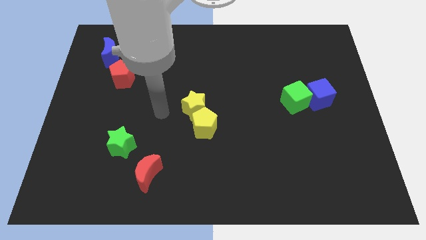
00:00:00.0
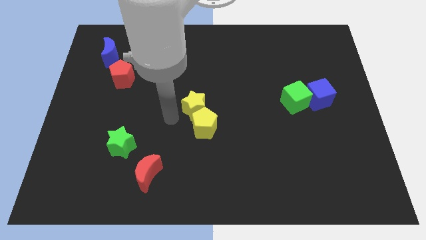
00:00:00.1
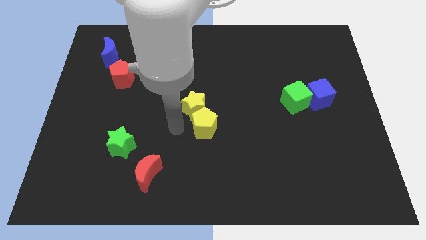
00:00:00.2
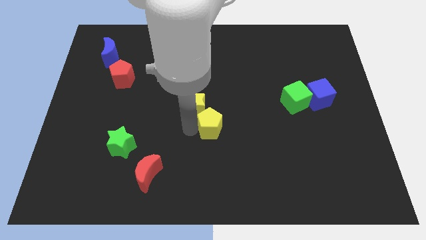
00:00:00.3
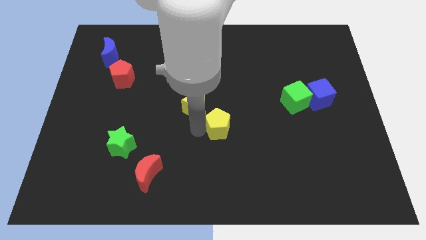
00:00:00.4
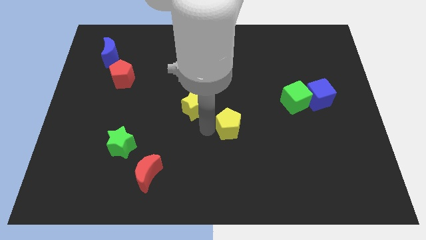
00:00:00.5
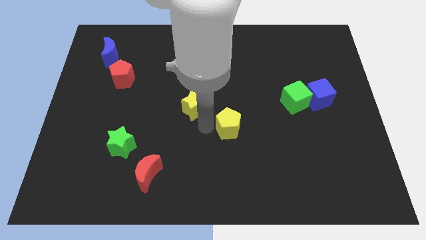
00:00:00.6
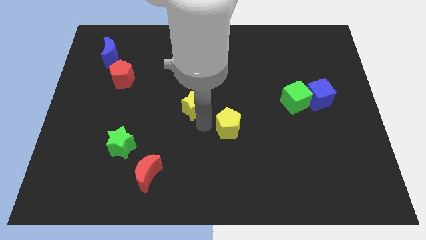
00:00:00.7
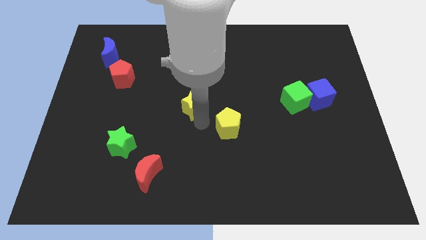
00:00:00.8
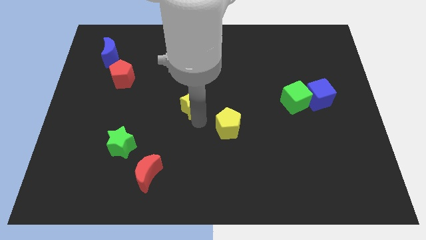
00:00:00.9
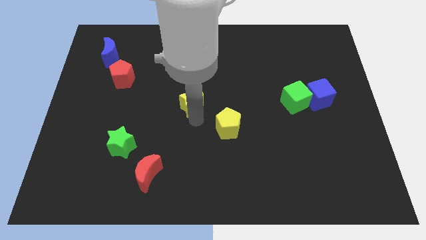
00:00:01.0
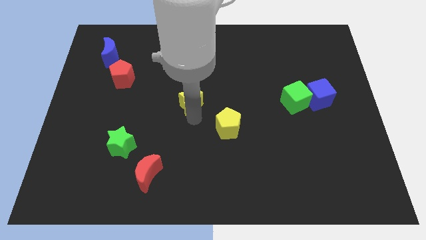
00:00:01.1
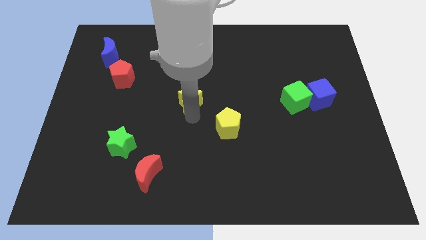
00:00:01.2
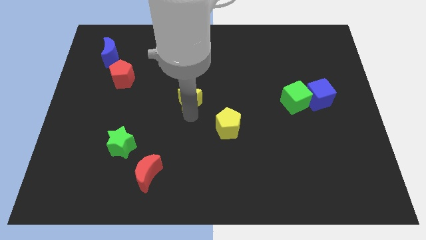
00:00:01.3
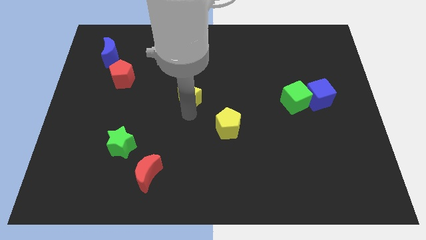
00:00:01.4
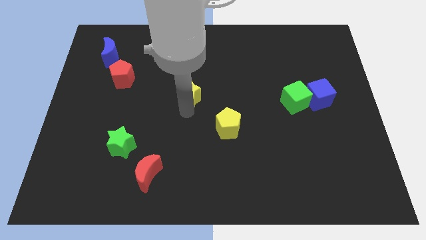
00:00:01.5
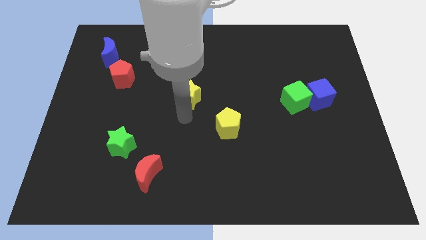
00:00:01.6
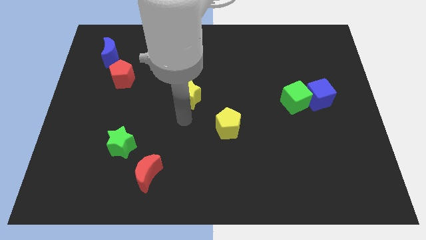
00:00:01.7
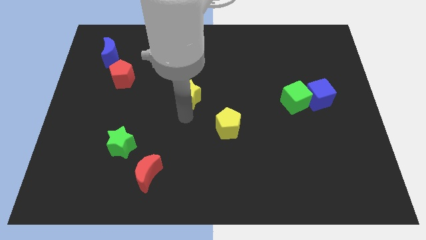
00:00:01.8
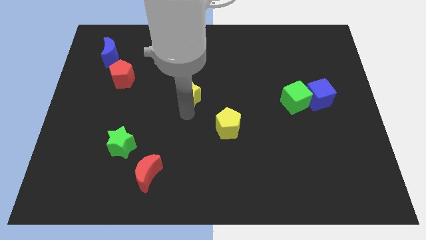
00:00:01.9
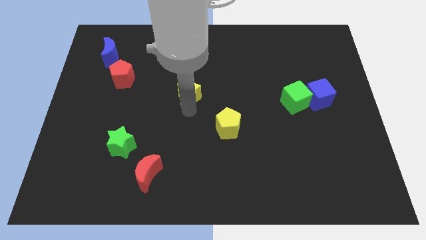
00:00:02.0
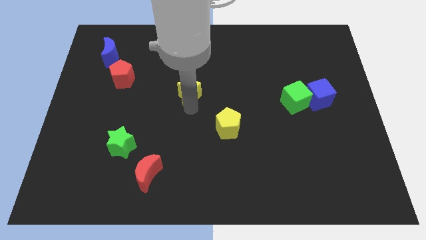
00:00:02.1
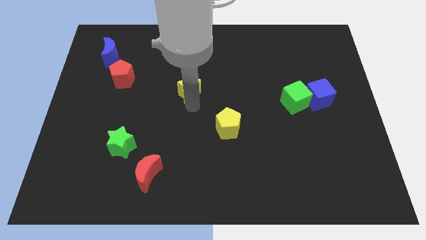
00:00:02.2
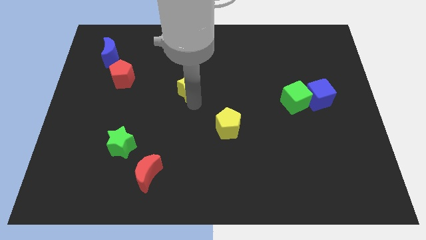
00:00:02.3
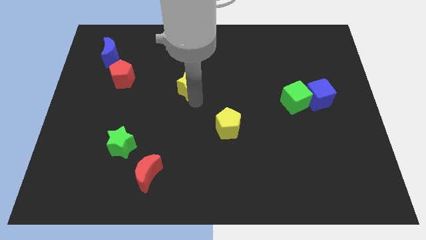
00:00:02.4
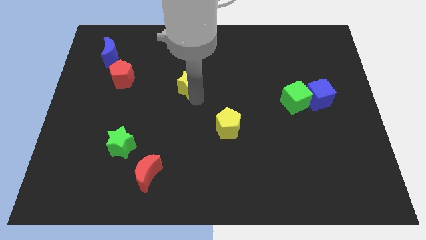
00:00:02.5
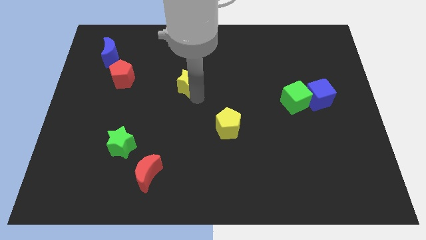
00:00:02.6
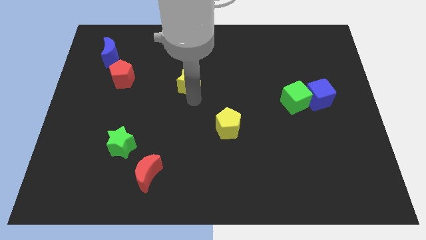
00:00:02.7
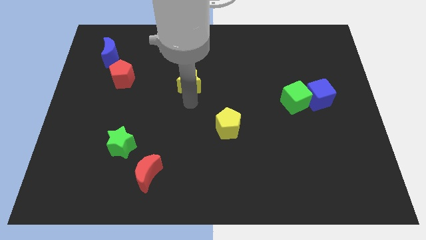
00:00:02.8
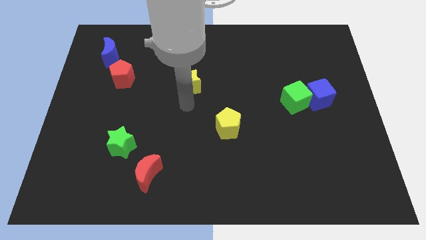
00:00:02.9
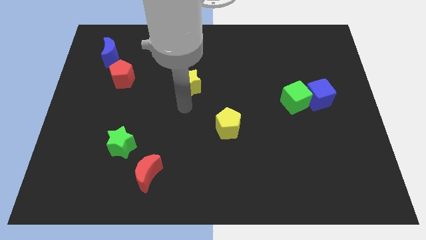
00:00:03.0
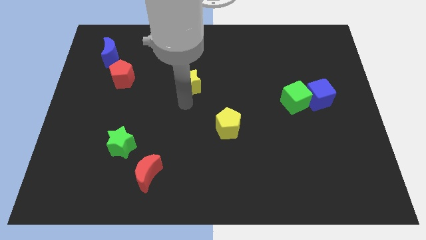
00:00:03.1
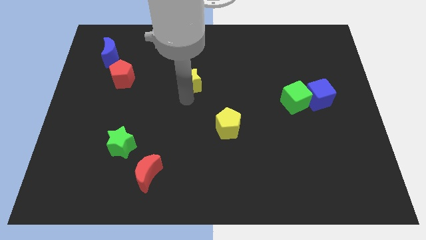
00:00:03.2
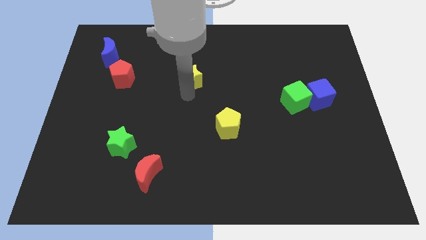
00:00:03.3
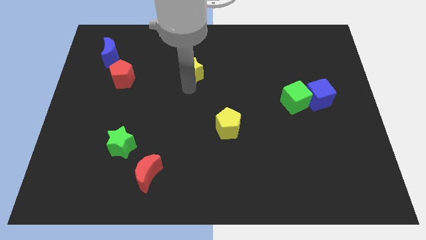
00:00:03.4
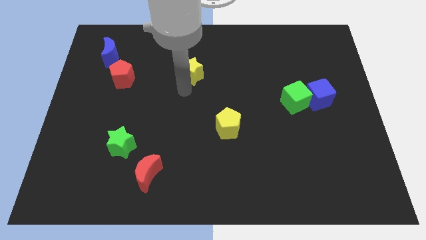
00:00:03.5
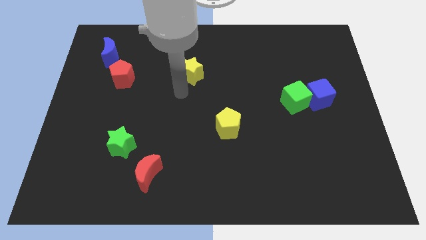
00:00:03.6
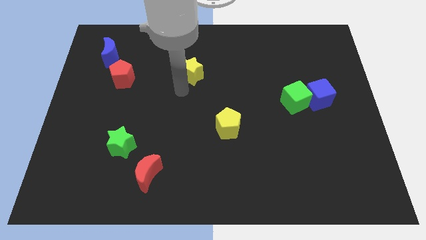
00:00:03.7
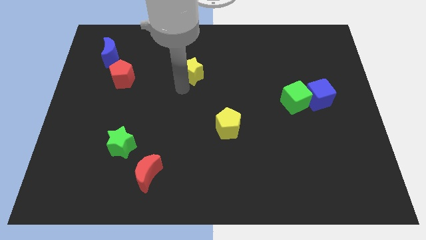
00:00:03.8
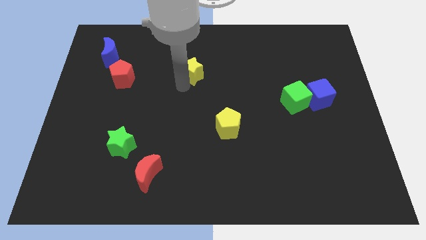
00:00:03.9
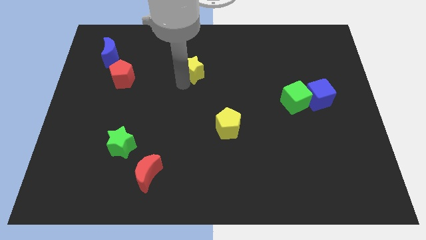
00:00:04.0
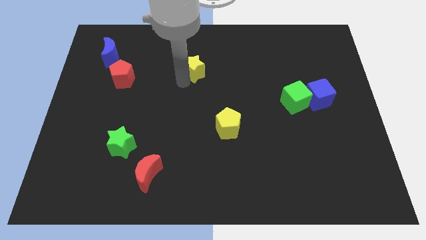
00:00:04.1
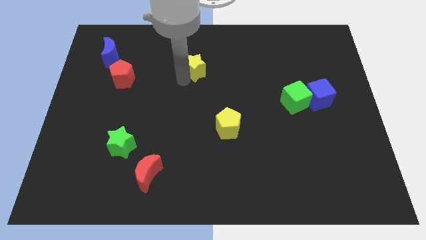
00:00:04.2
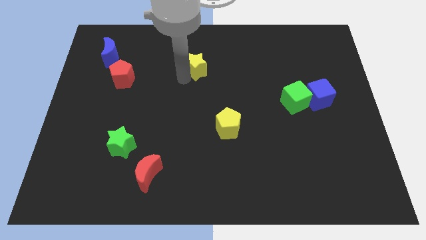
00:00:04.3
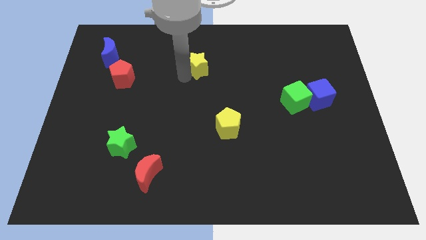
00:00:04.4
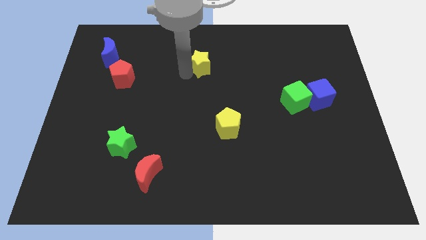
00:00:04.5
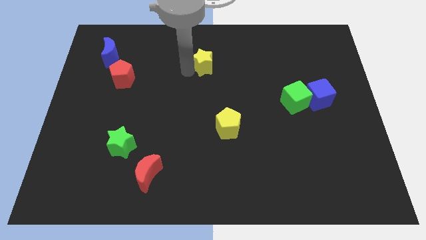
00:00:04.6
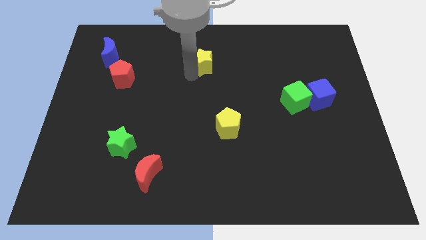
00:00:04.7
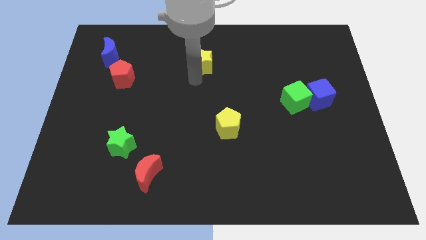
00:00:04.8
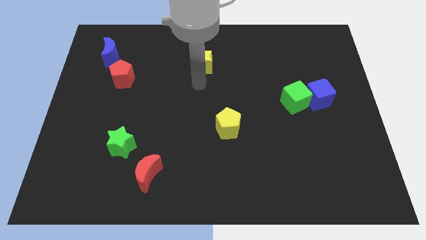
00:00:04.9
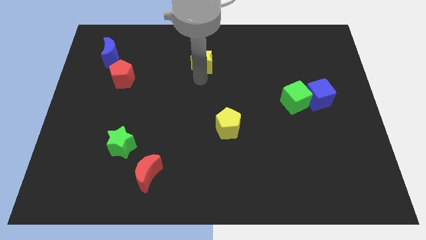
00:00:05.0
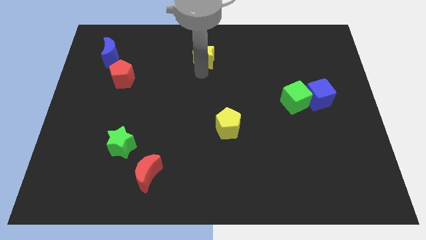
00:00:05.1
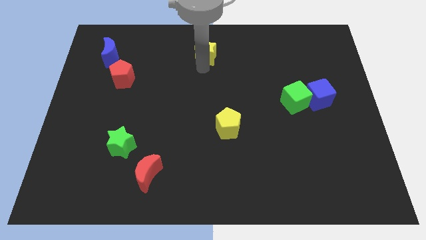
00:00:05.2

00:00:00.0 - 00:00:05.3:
move the yellow star to the top side

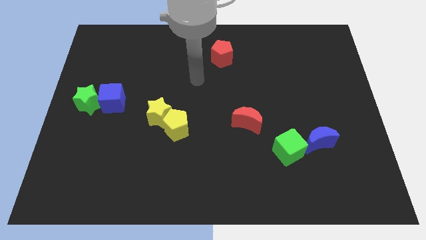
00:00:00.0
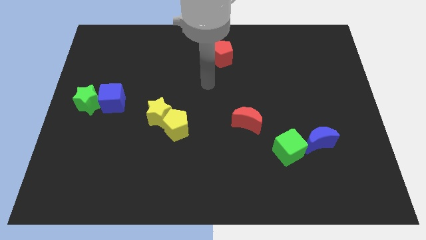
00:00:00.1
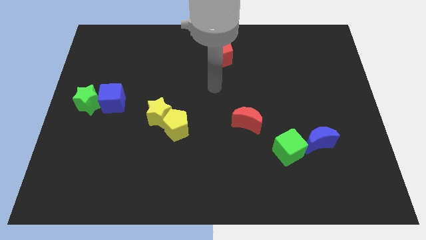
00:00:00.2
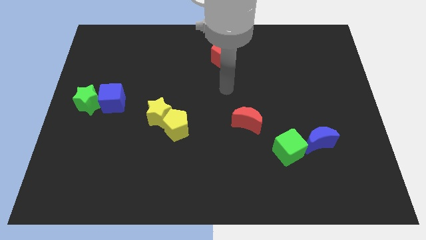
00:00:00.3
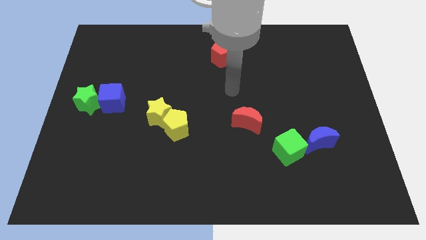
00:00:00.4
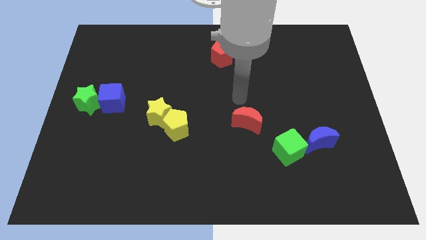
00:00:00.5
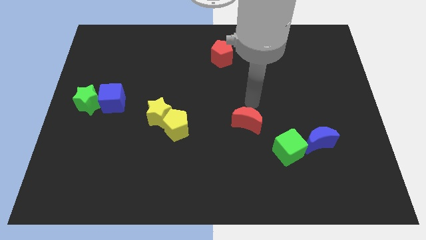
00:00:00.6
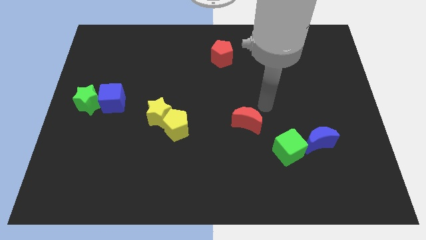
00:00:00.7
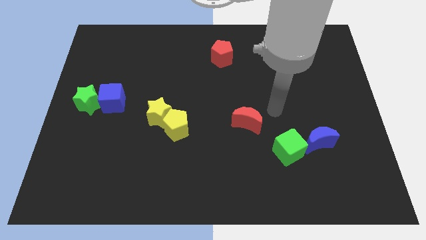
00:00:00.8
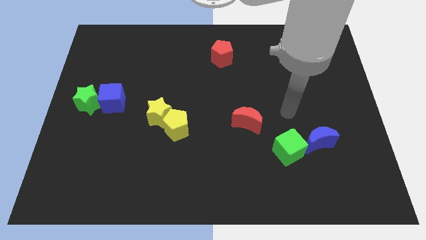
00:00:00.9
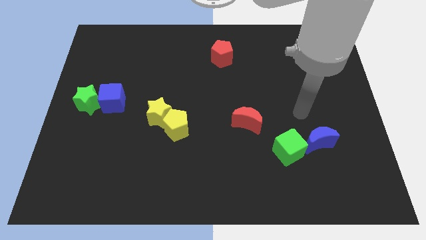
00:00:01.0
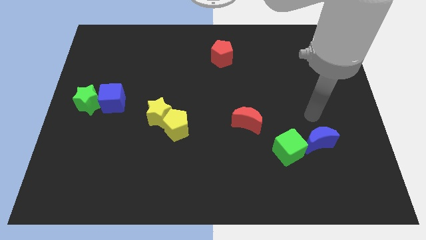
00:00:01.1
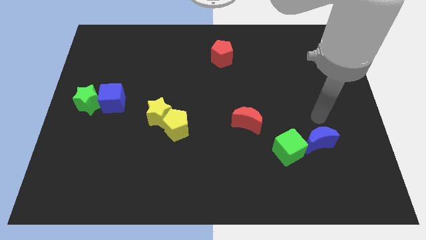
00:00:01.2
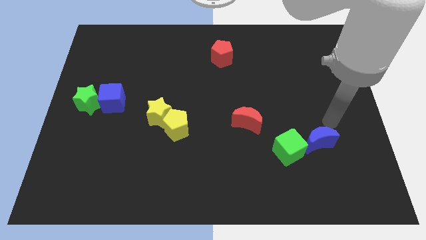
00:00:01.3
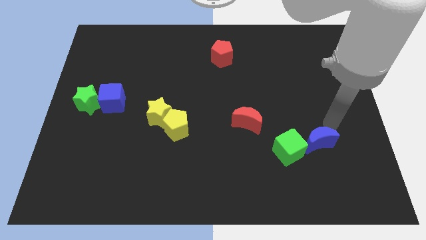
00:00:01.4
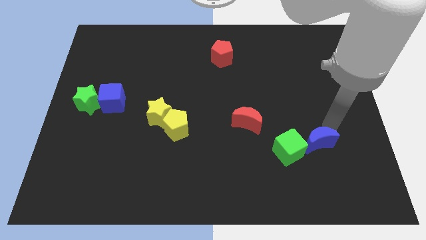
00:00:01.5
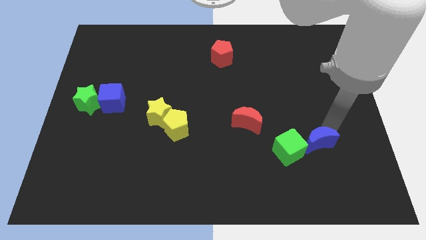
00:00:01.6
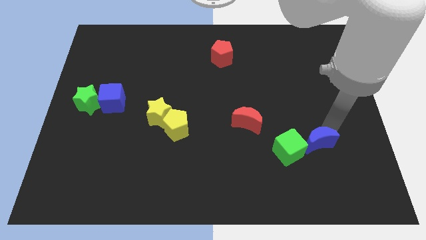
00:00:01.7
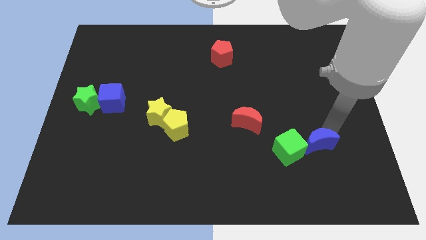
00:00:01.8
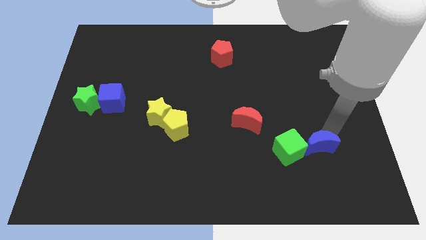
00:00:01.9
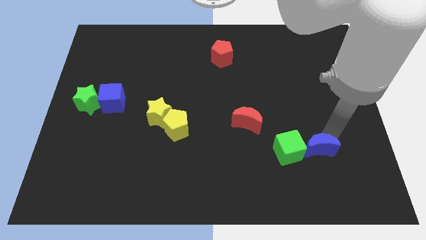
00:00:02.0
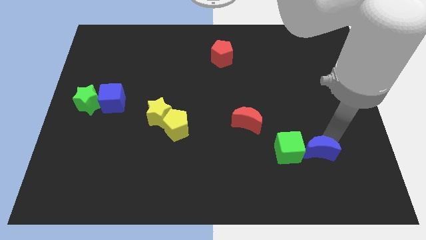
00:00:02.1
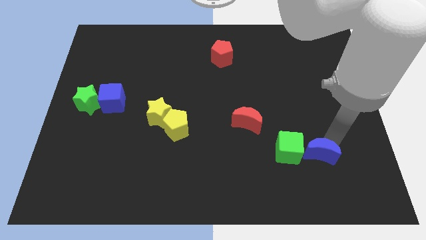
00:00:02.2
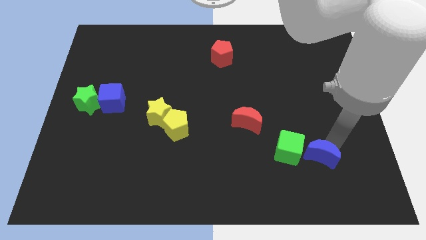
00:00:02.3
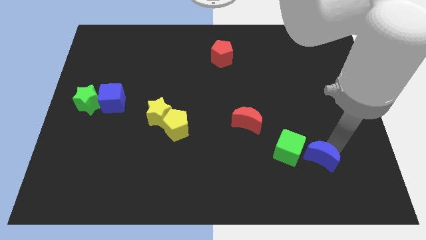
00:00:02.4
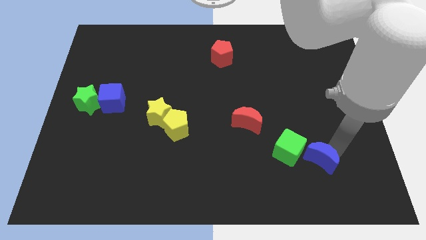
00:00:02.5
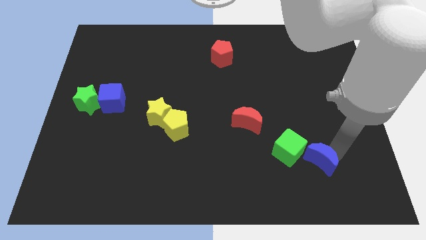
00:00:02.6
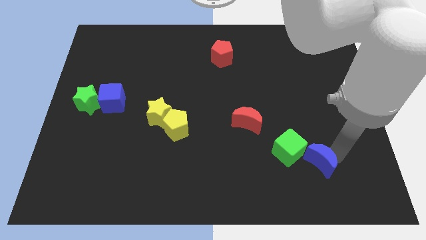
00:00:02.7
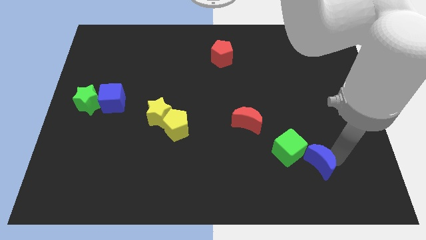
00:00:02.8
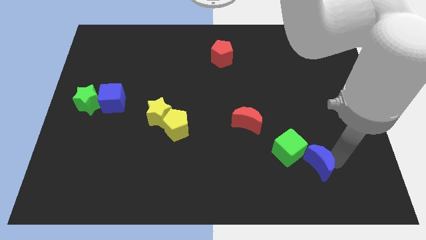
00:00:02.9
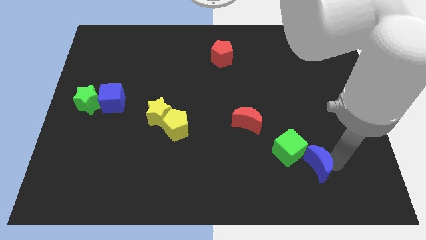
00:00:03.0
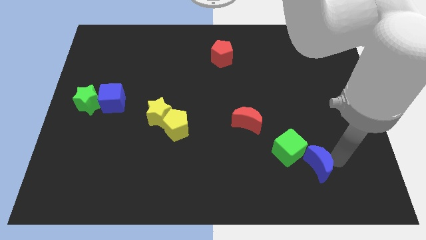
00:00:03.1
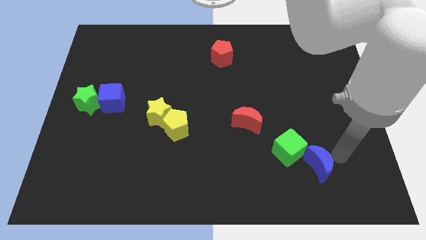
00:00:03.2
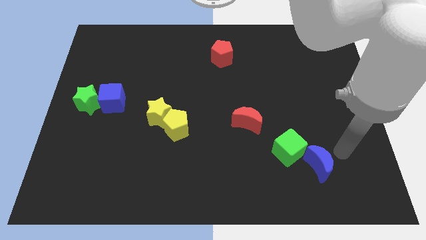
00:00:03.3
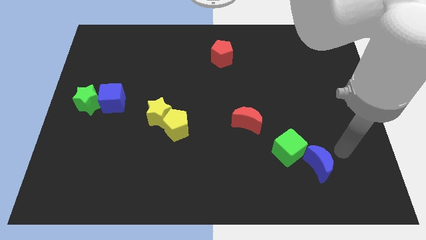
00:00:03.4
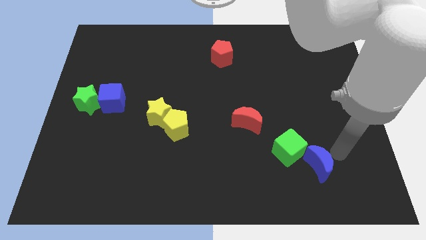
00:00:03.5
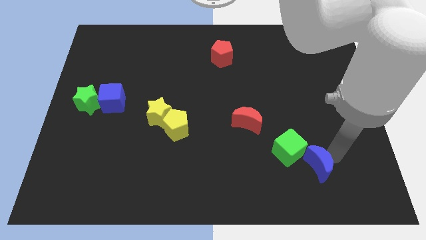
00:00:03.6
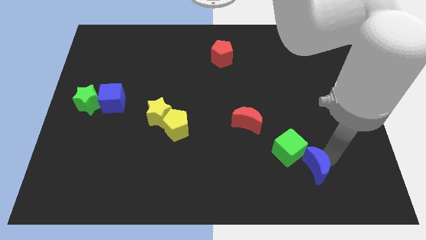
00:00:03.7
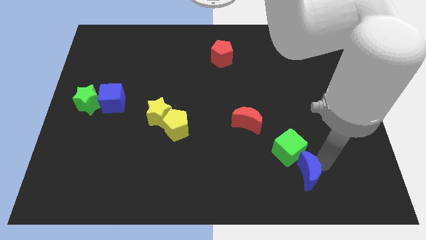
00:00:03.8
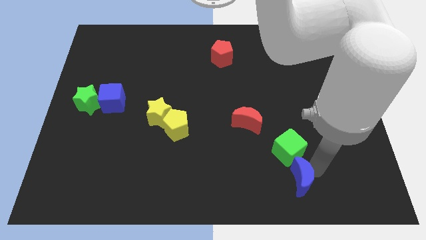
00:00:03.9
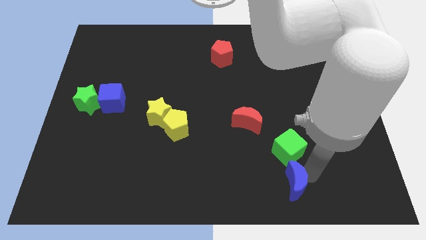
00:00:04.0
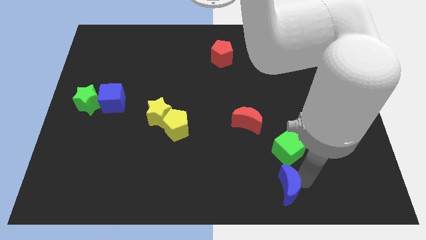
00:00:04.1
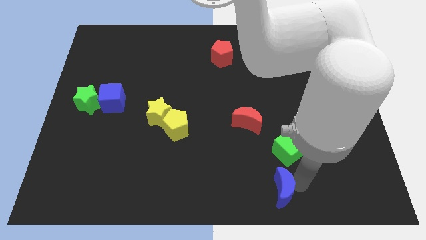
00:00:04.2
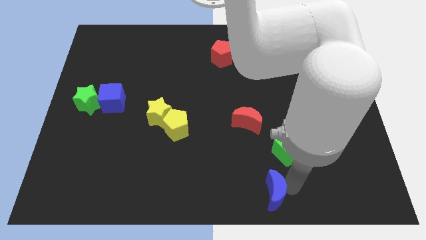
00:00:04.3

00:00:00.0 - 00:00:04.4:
push the blue moon to the bottom side
